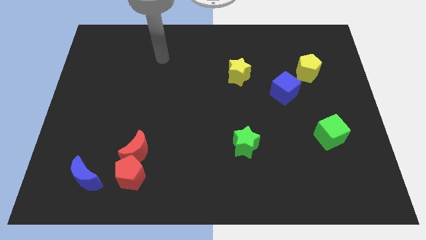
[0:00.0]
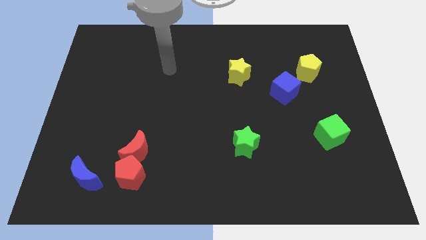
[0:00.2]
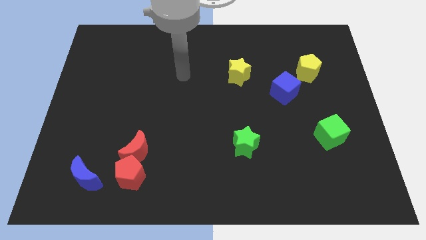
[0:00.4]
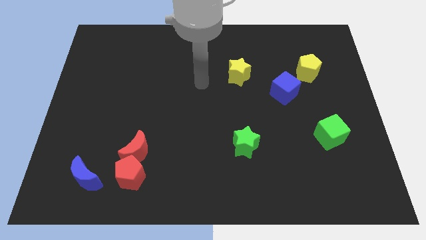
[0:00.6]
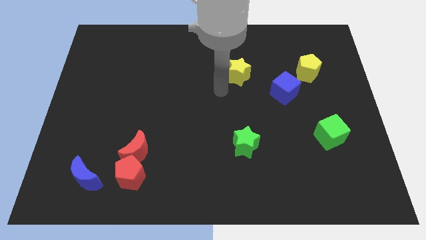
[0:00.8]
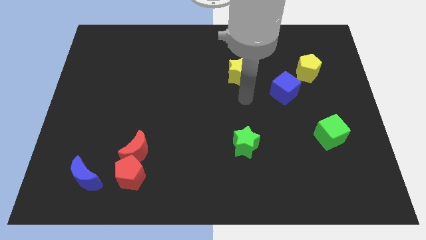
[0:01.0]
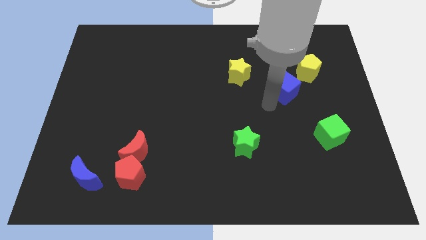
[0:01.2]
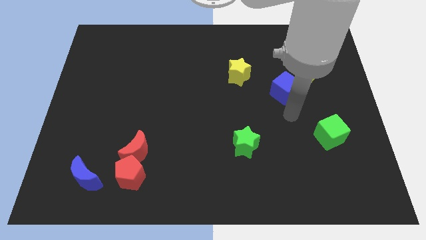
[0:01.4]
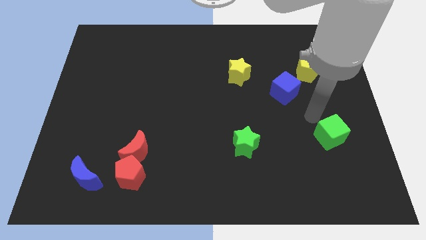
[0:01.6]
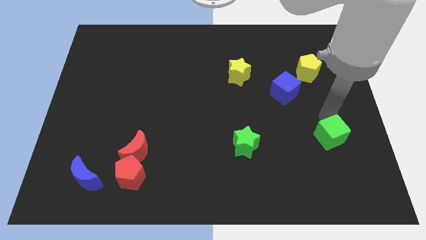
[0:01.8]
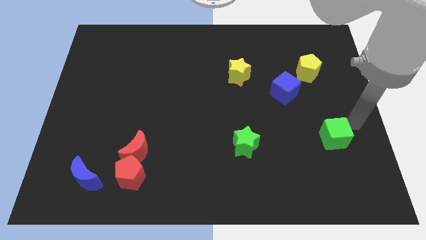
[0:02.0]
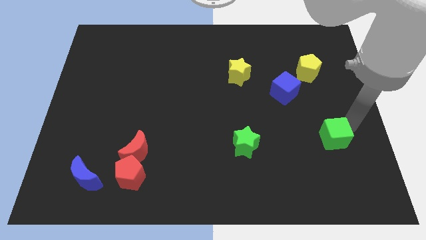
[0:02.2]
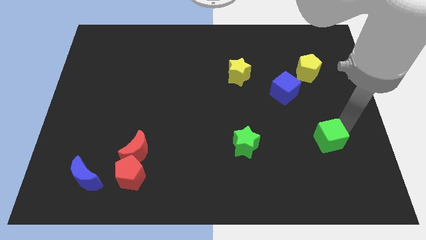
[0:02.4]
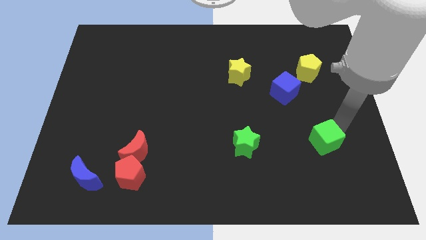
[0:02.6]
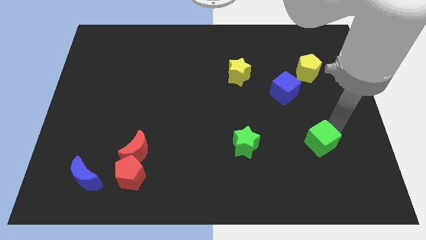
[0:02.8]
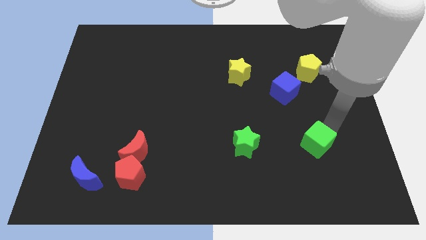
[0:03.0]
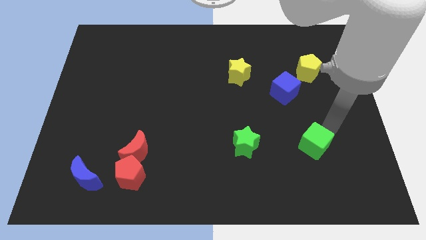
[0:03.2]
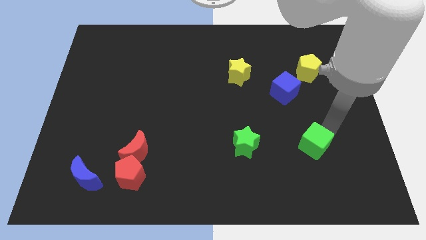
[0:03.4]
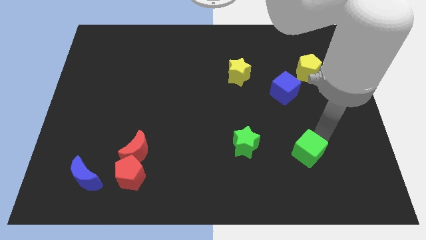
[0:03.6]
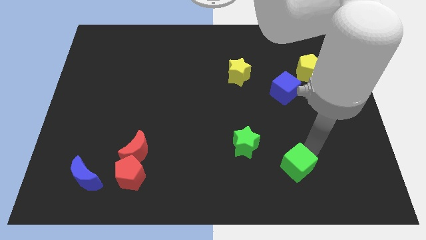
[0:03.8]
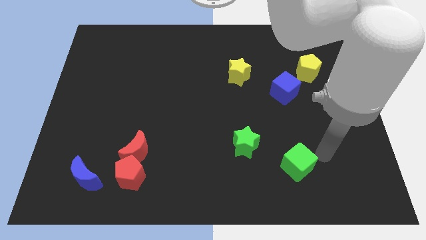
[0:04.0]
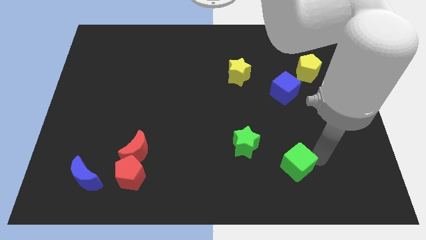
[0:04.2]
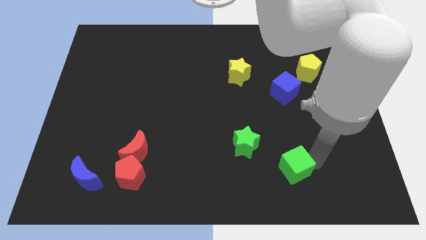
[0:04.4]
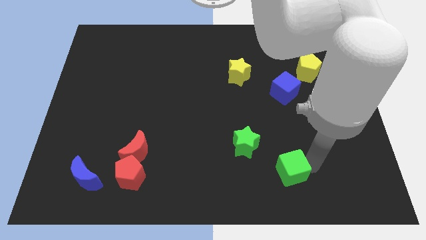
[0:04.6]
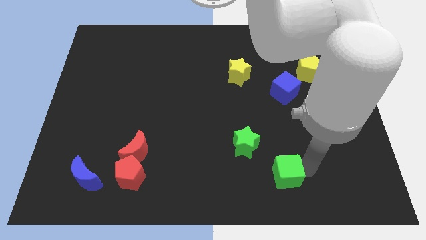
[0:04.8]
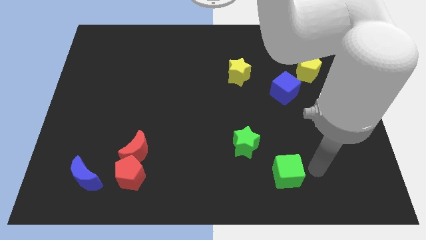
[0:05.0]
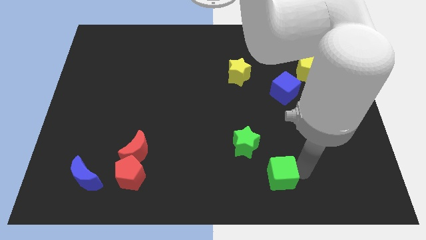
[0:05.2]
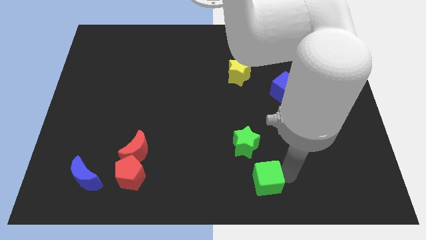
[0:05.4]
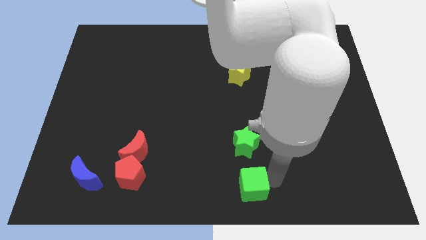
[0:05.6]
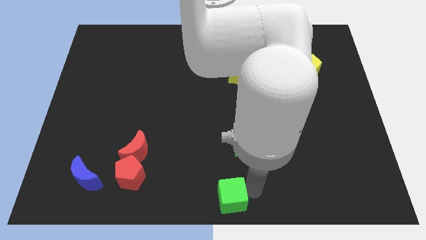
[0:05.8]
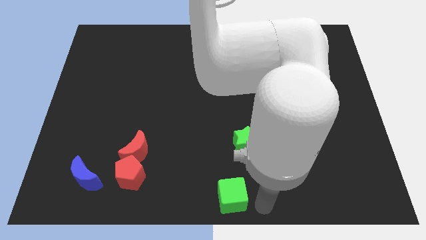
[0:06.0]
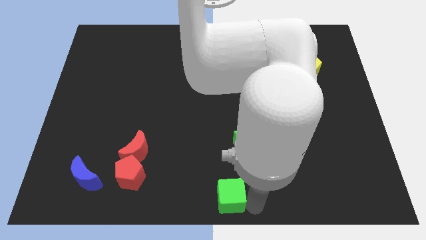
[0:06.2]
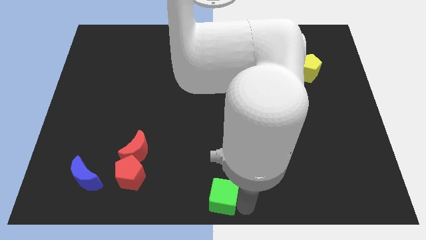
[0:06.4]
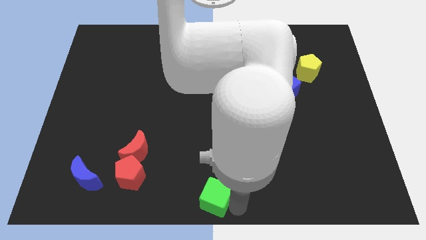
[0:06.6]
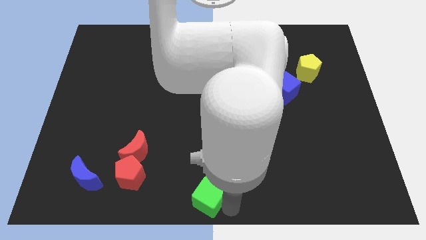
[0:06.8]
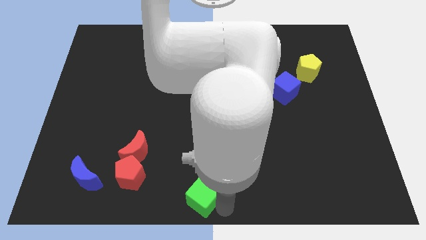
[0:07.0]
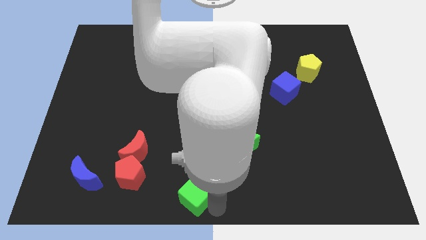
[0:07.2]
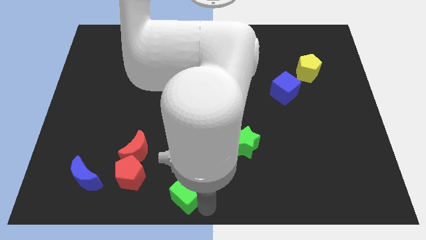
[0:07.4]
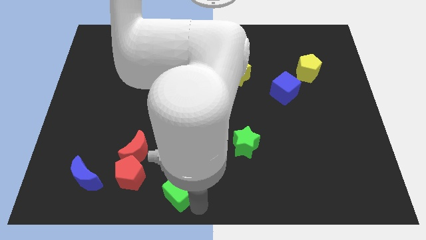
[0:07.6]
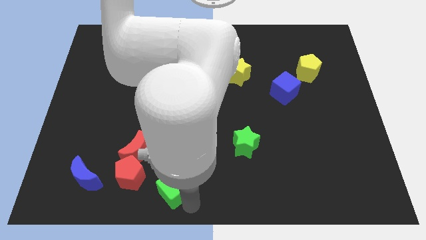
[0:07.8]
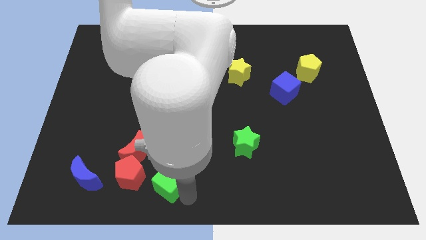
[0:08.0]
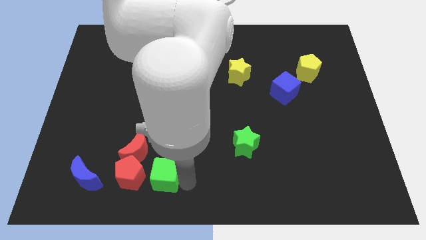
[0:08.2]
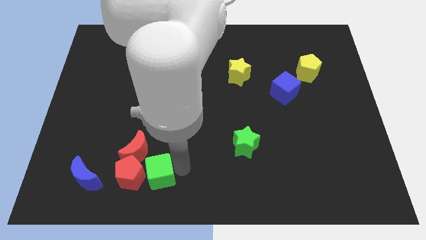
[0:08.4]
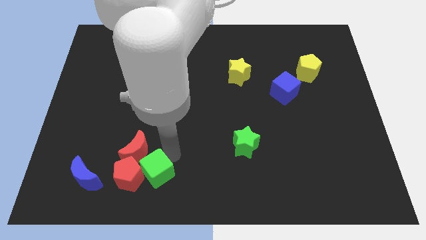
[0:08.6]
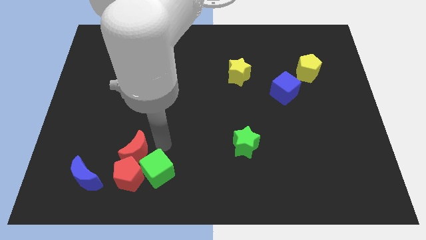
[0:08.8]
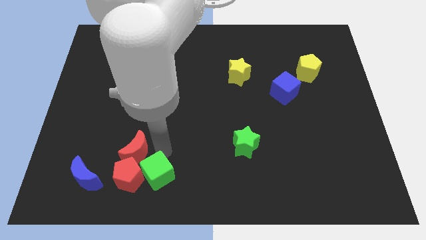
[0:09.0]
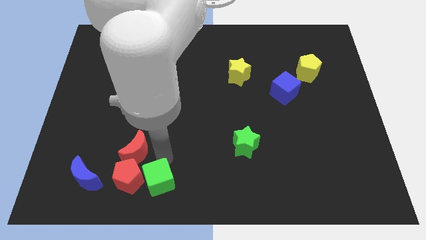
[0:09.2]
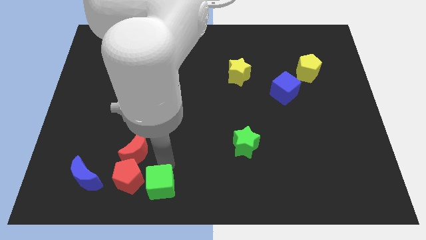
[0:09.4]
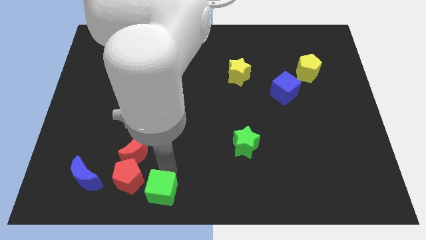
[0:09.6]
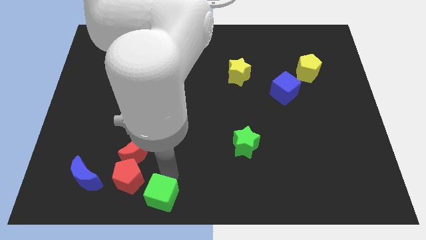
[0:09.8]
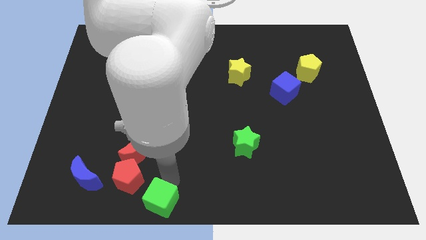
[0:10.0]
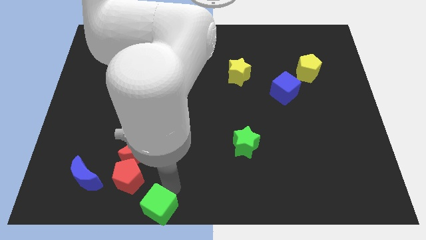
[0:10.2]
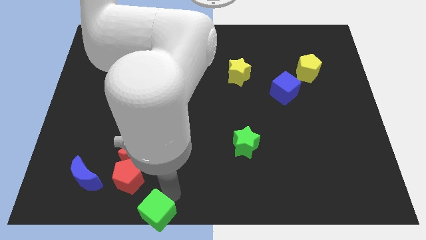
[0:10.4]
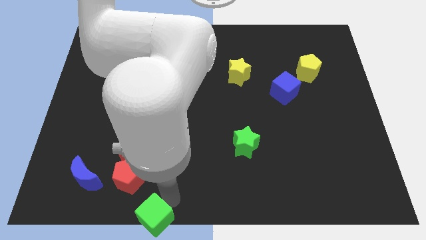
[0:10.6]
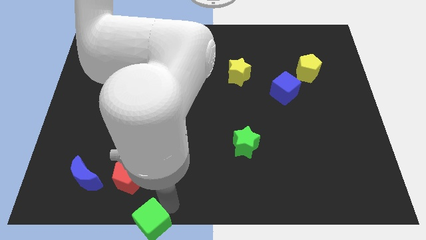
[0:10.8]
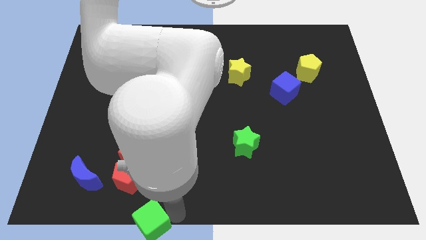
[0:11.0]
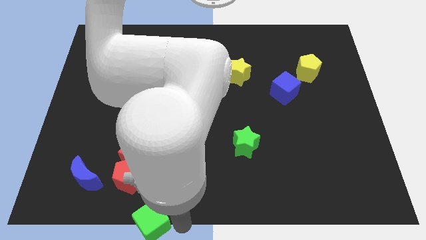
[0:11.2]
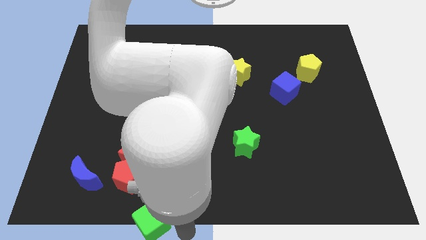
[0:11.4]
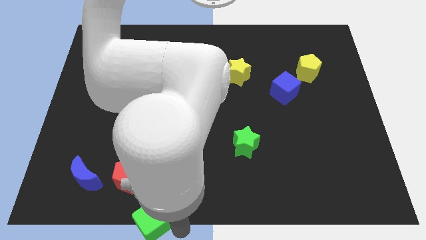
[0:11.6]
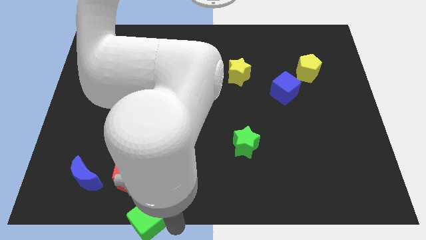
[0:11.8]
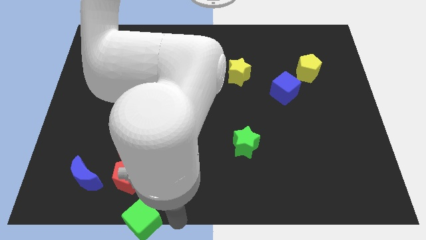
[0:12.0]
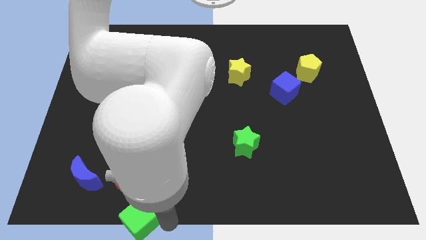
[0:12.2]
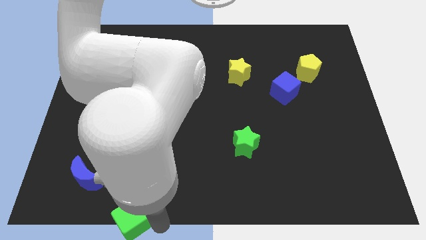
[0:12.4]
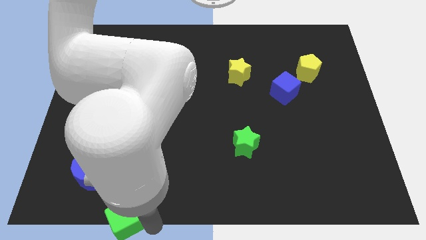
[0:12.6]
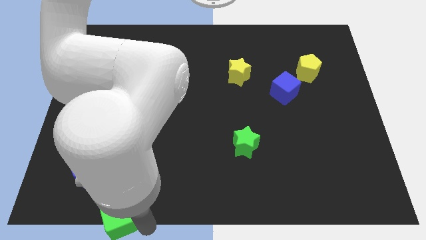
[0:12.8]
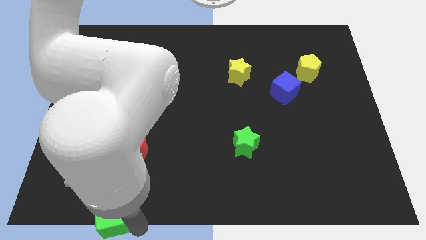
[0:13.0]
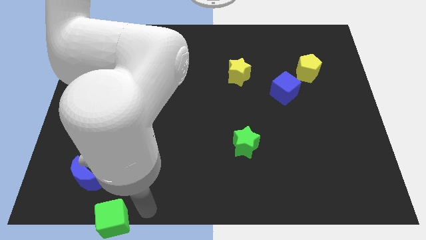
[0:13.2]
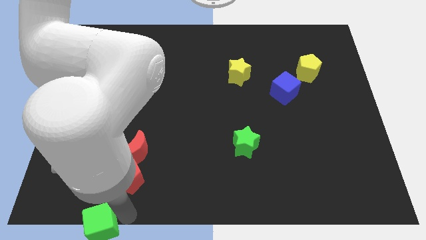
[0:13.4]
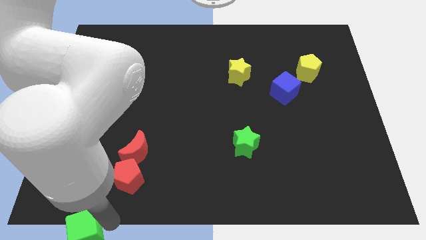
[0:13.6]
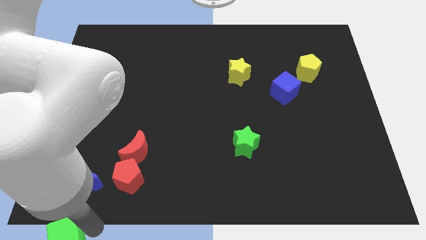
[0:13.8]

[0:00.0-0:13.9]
put the green cube to the bottom left of the board
